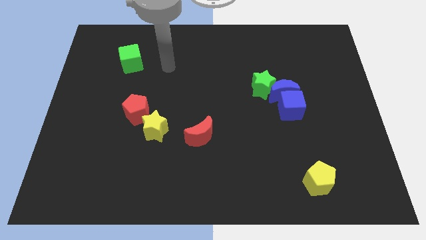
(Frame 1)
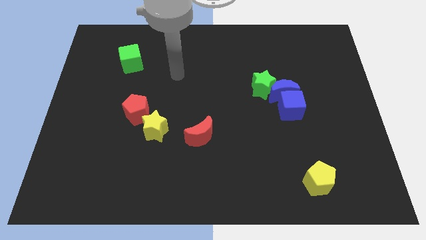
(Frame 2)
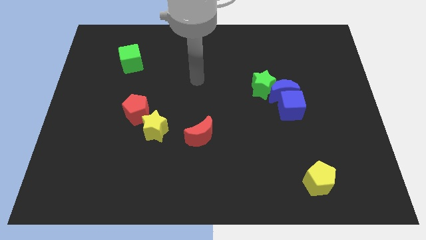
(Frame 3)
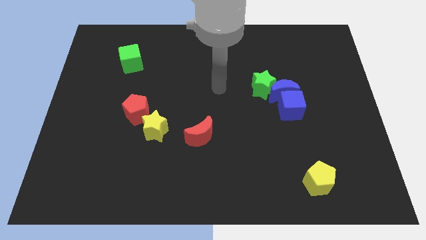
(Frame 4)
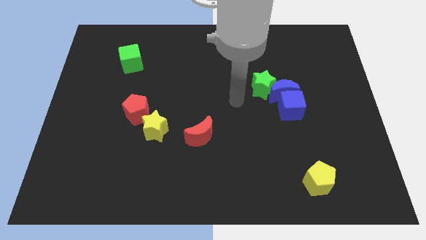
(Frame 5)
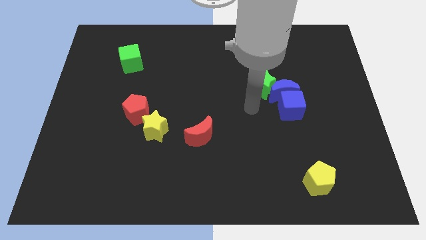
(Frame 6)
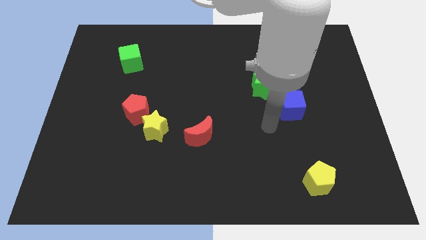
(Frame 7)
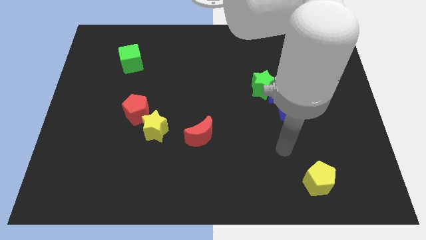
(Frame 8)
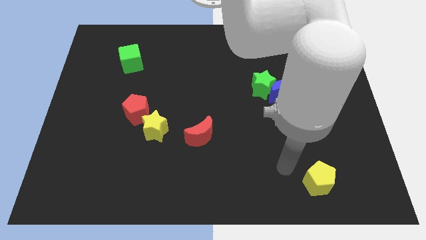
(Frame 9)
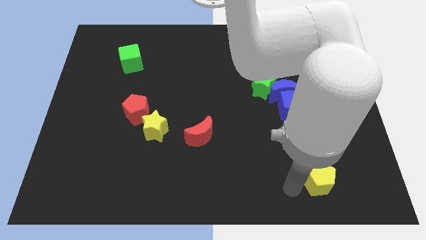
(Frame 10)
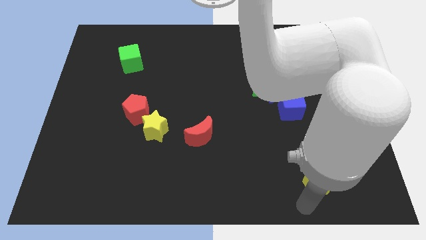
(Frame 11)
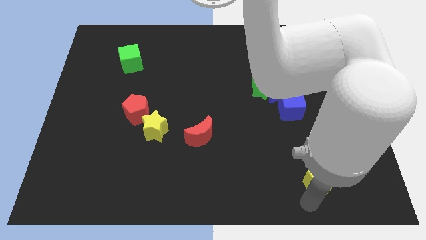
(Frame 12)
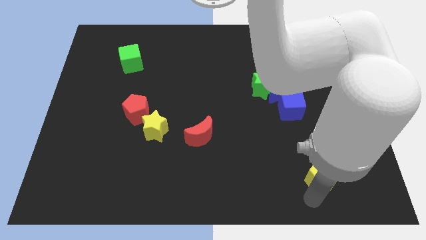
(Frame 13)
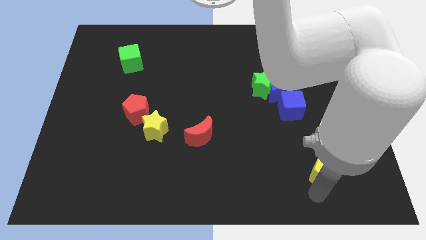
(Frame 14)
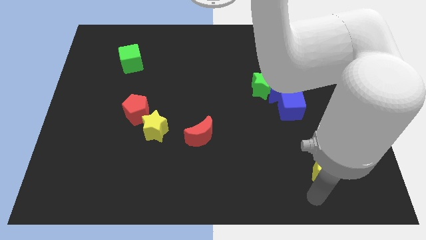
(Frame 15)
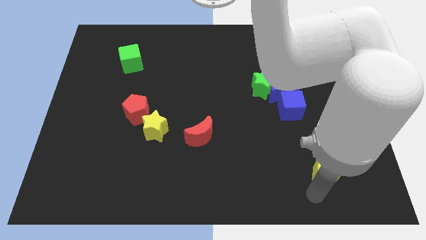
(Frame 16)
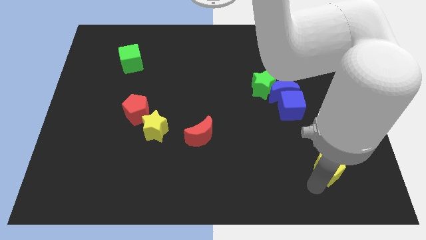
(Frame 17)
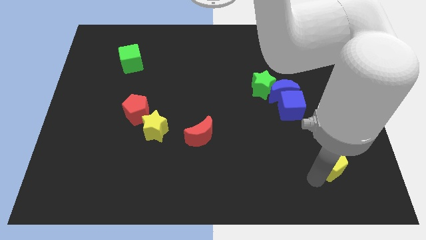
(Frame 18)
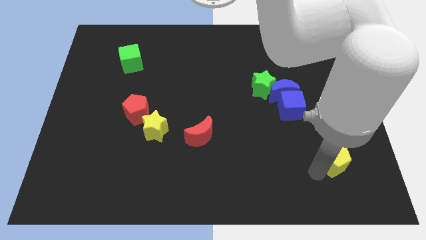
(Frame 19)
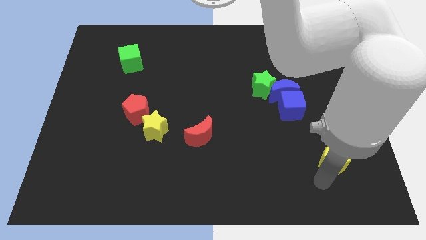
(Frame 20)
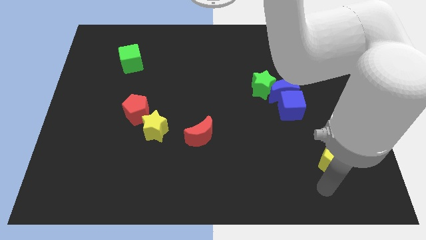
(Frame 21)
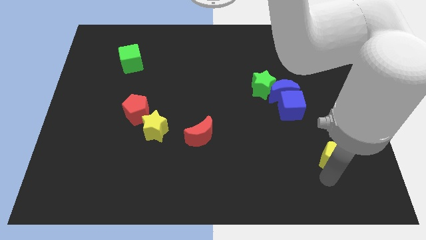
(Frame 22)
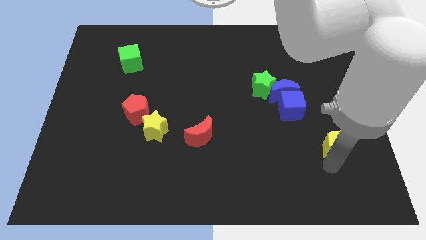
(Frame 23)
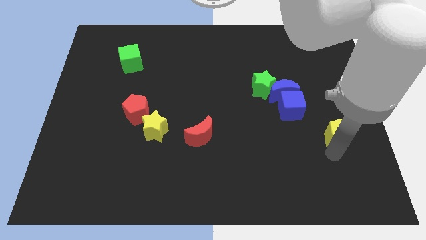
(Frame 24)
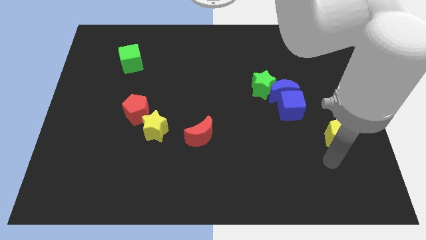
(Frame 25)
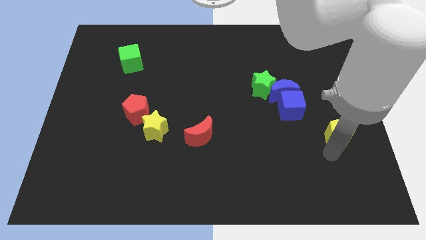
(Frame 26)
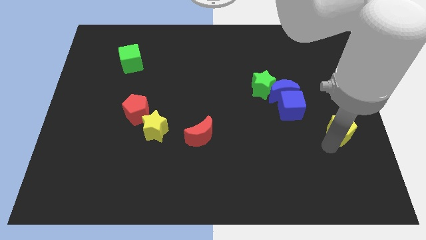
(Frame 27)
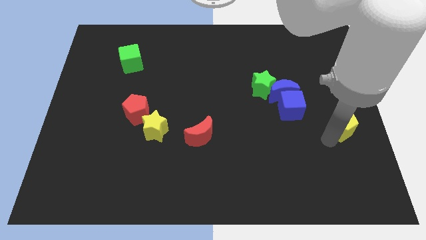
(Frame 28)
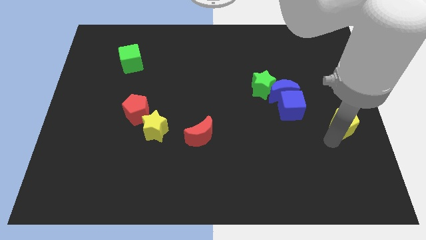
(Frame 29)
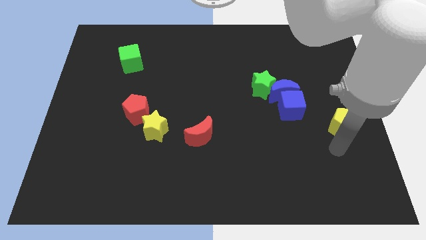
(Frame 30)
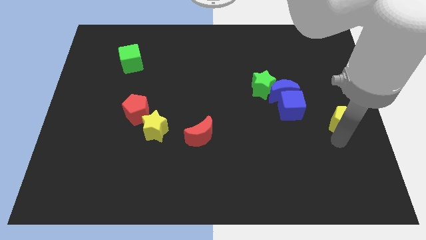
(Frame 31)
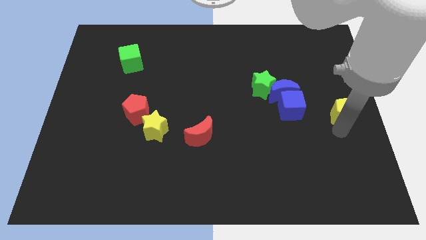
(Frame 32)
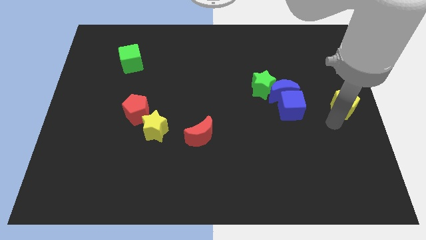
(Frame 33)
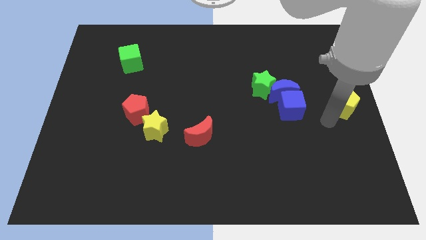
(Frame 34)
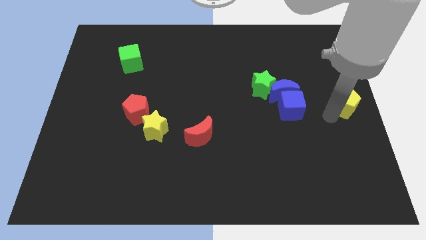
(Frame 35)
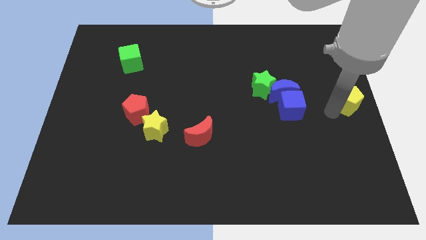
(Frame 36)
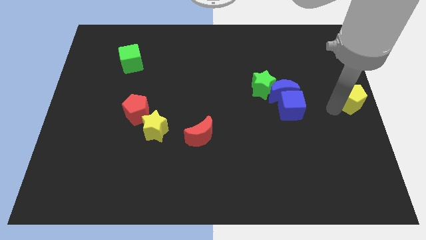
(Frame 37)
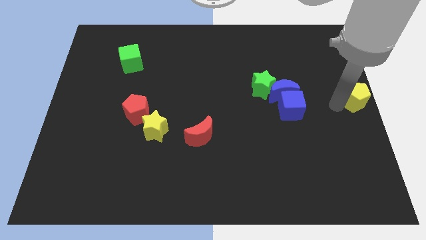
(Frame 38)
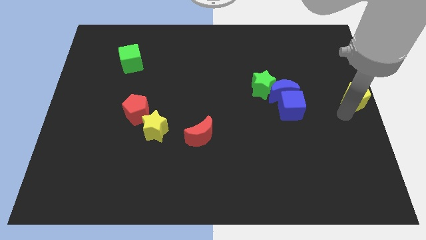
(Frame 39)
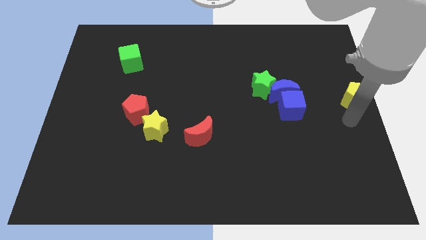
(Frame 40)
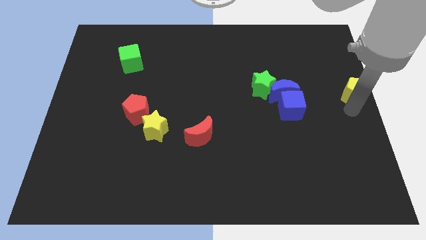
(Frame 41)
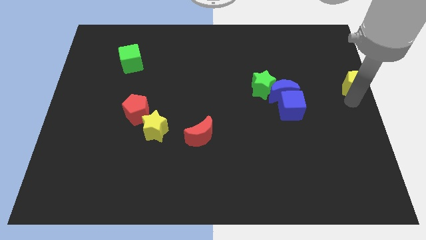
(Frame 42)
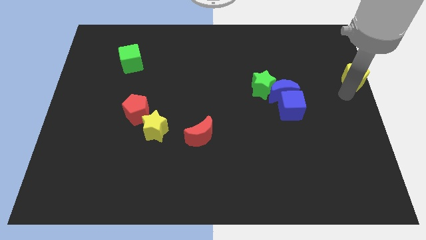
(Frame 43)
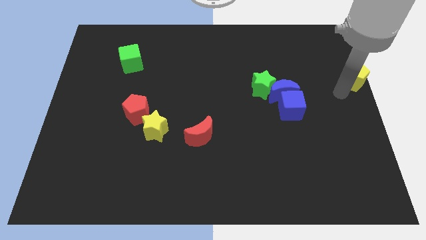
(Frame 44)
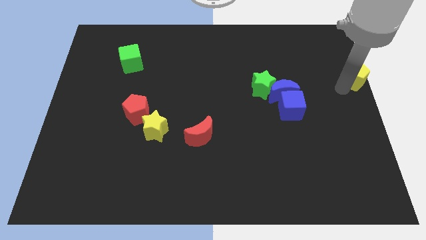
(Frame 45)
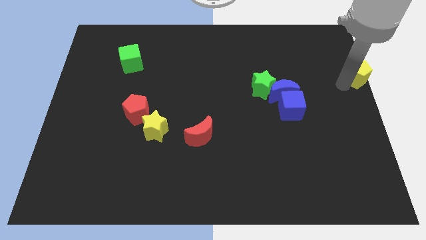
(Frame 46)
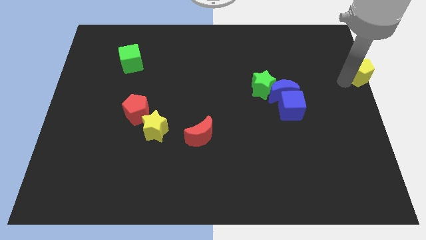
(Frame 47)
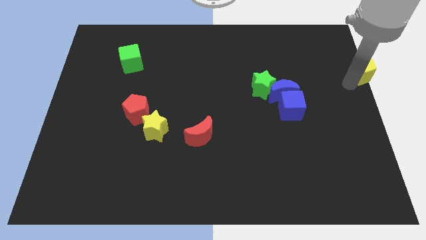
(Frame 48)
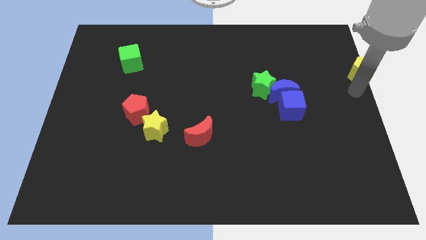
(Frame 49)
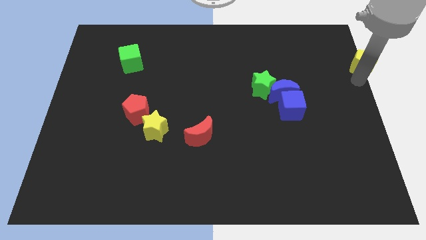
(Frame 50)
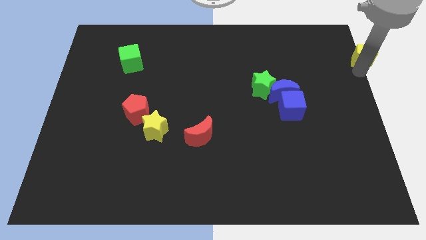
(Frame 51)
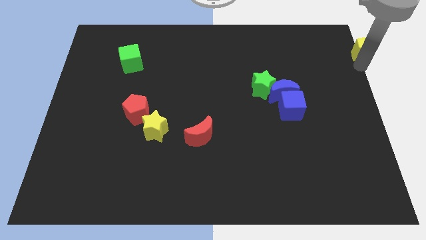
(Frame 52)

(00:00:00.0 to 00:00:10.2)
put the yellow pentagon to the top right

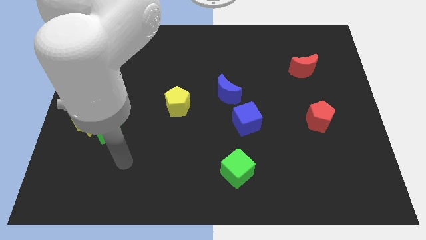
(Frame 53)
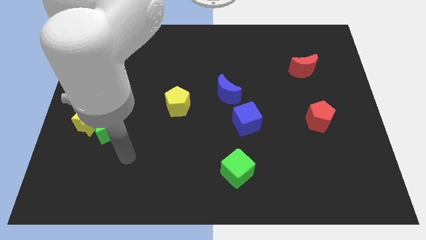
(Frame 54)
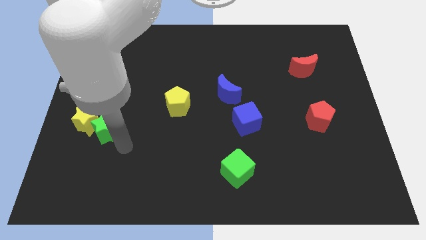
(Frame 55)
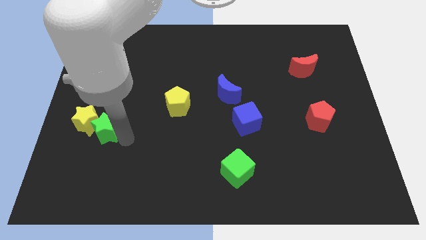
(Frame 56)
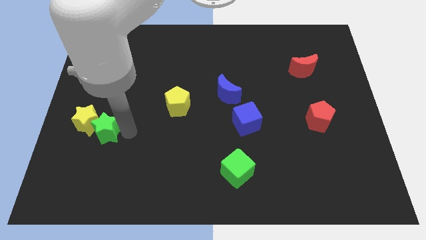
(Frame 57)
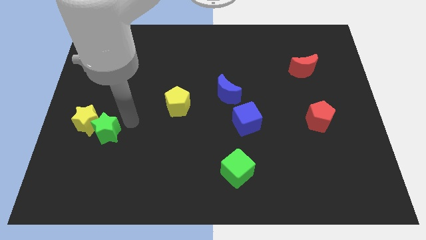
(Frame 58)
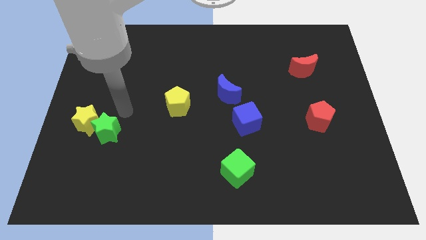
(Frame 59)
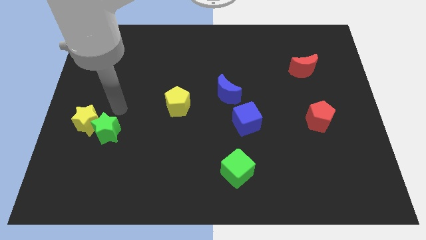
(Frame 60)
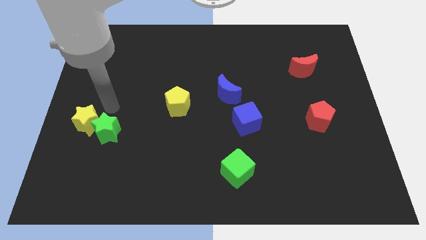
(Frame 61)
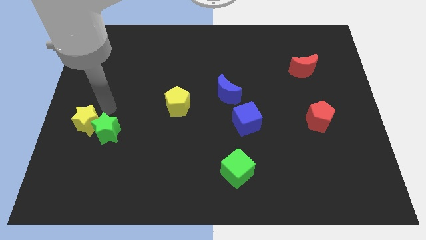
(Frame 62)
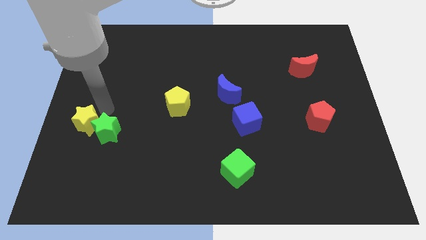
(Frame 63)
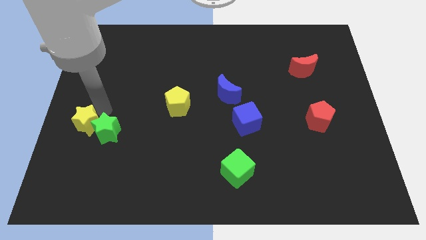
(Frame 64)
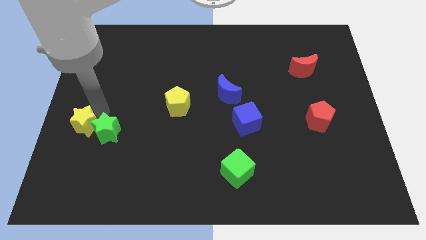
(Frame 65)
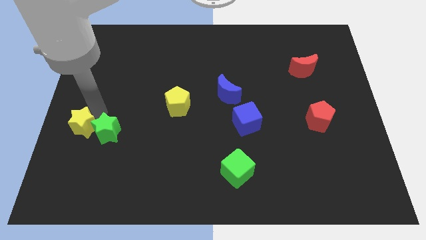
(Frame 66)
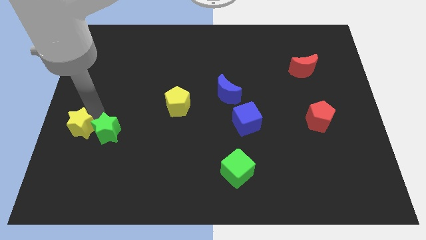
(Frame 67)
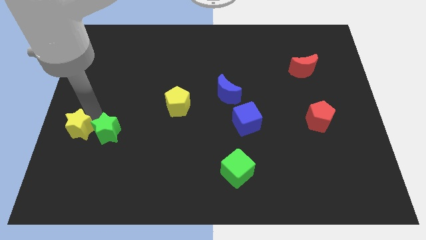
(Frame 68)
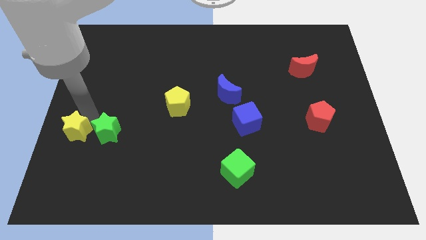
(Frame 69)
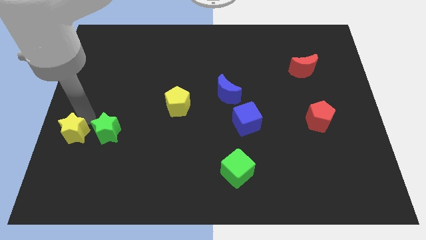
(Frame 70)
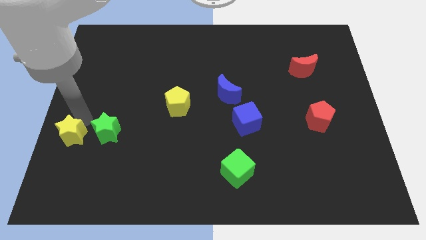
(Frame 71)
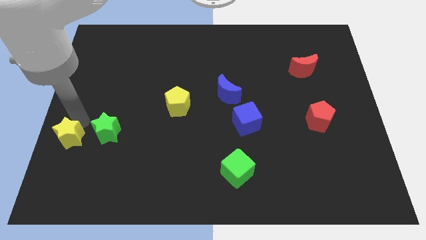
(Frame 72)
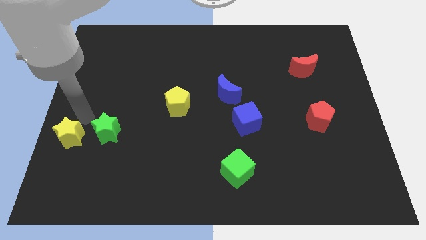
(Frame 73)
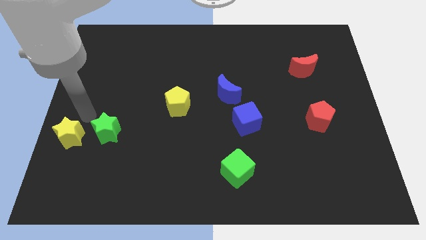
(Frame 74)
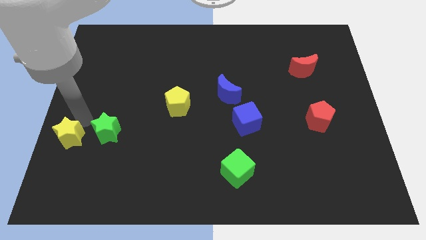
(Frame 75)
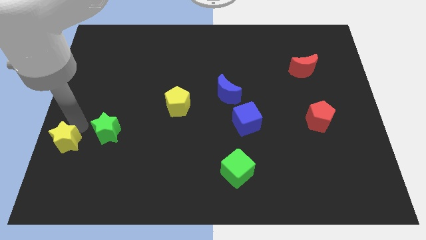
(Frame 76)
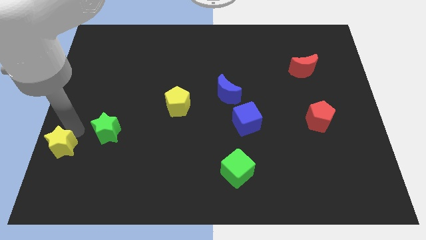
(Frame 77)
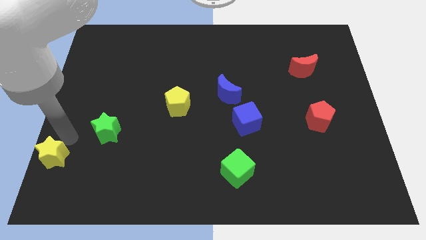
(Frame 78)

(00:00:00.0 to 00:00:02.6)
push the yellow star to the bottom left corner
